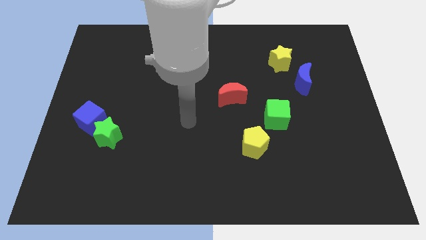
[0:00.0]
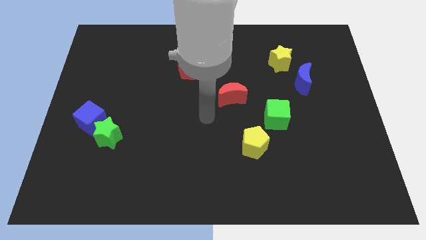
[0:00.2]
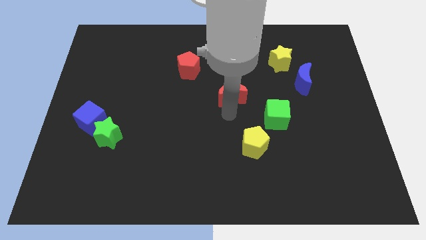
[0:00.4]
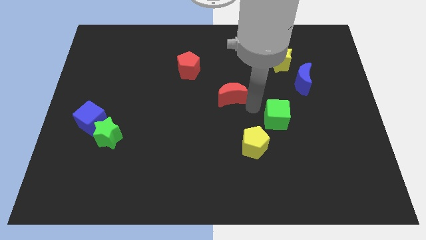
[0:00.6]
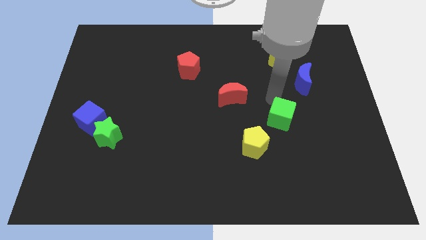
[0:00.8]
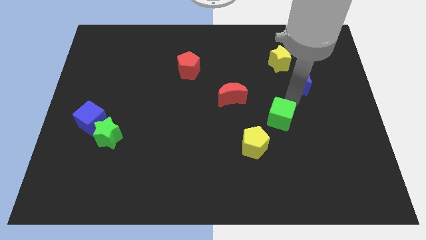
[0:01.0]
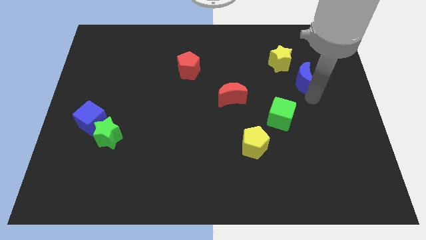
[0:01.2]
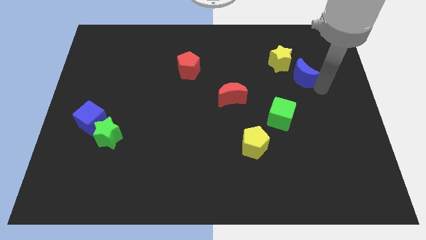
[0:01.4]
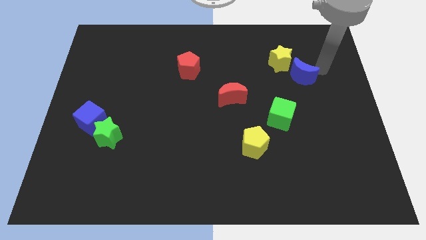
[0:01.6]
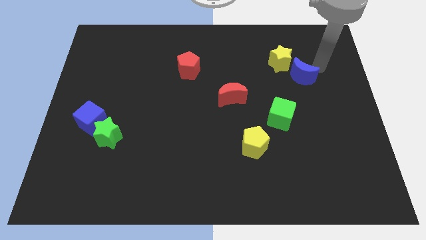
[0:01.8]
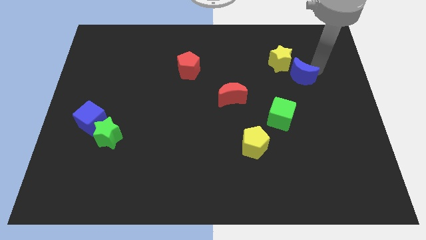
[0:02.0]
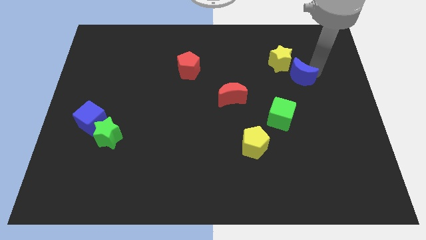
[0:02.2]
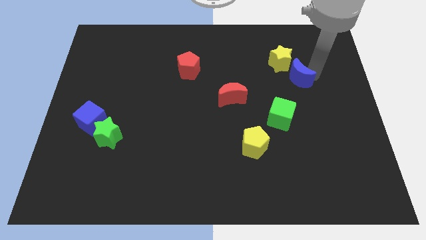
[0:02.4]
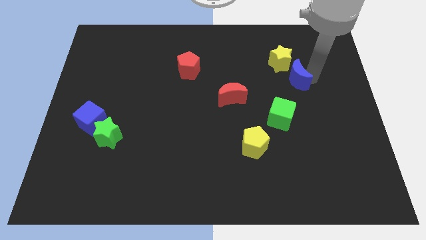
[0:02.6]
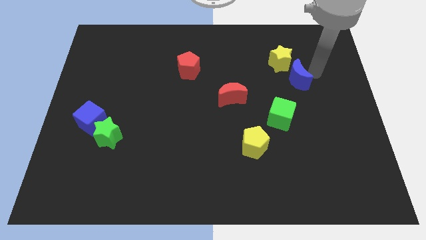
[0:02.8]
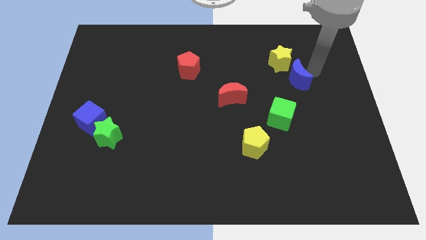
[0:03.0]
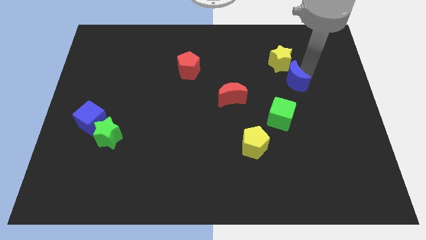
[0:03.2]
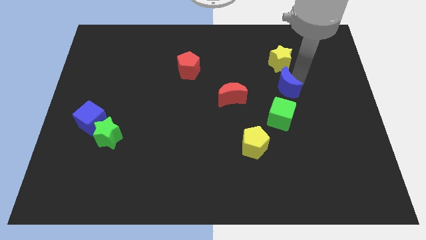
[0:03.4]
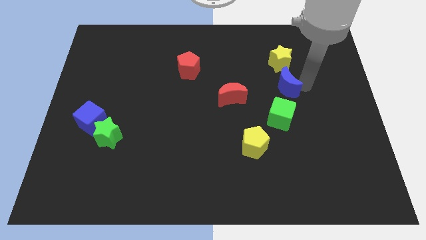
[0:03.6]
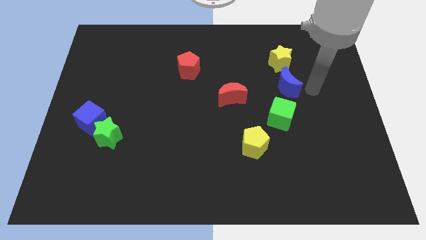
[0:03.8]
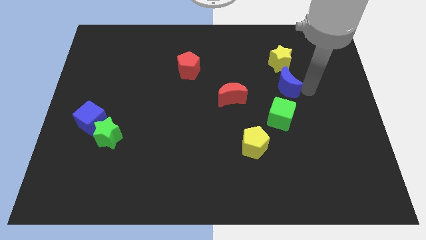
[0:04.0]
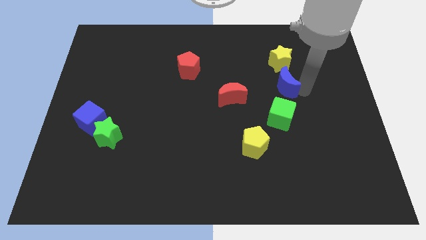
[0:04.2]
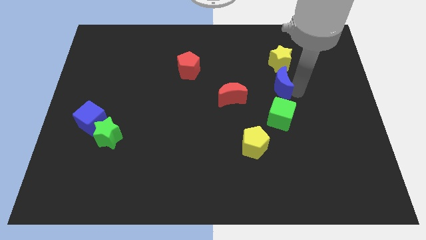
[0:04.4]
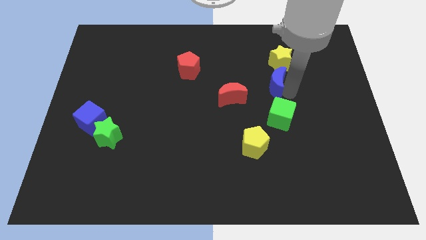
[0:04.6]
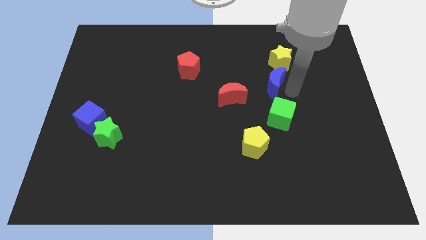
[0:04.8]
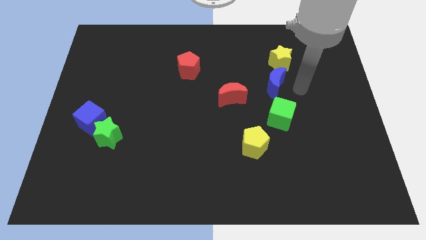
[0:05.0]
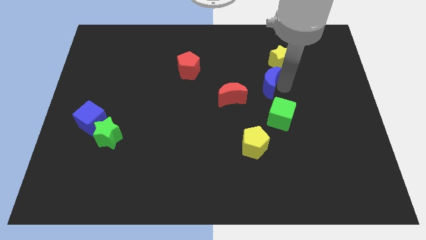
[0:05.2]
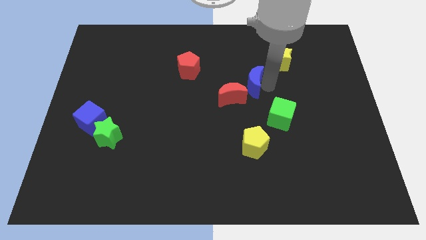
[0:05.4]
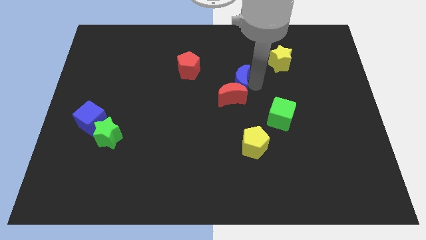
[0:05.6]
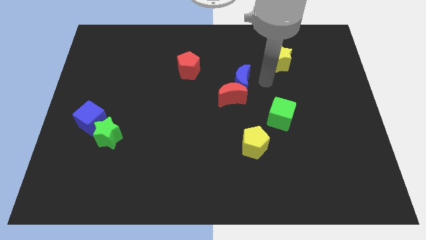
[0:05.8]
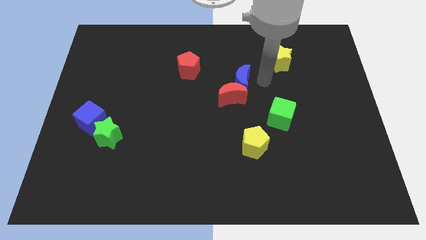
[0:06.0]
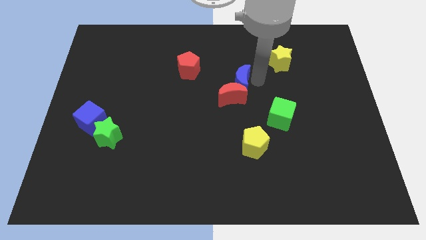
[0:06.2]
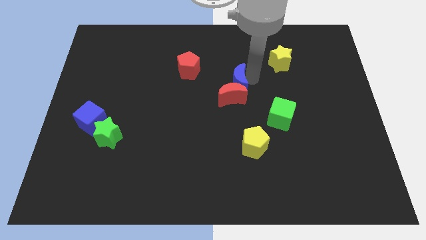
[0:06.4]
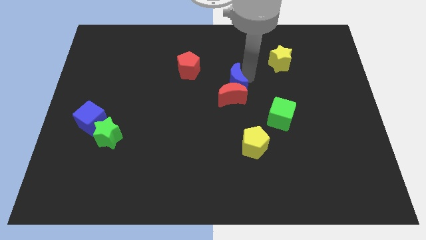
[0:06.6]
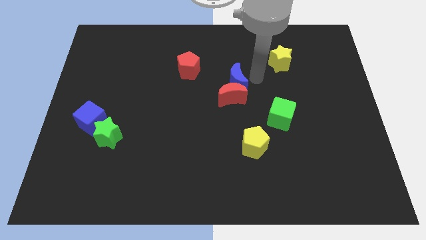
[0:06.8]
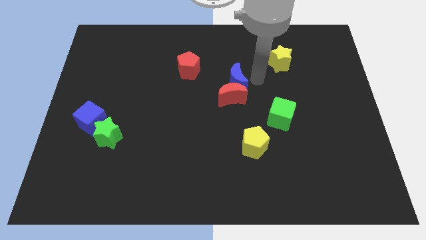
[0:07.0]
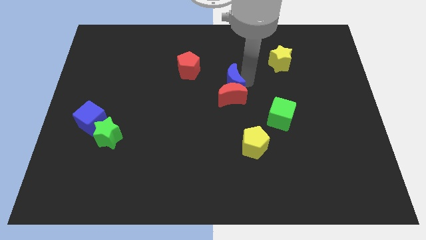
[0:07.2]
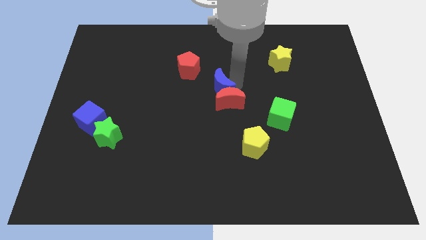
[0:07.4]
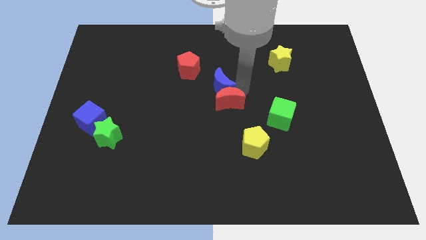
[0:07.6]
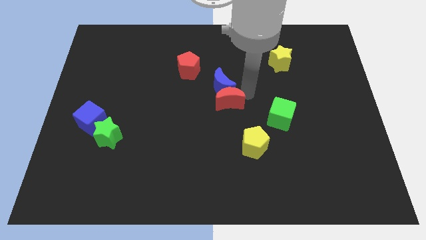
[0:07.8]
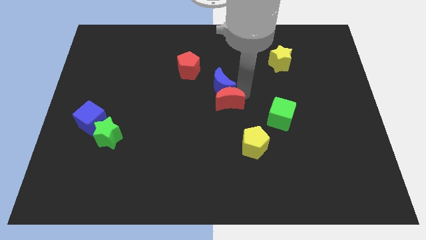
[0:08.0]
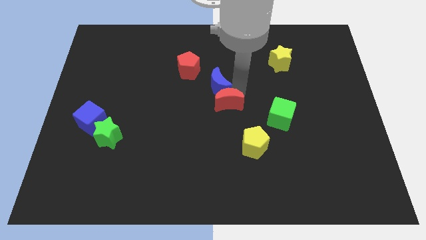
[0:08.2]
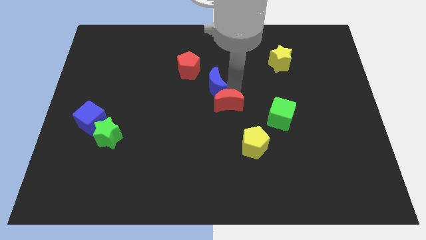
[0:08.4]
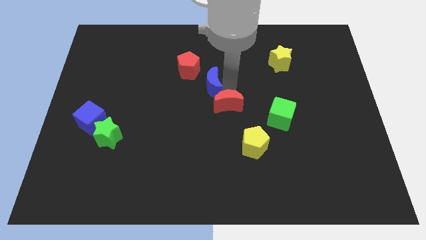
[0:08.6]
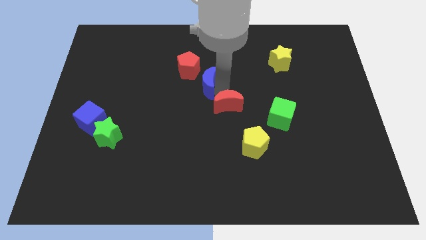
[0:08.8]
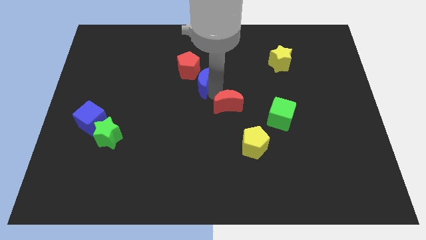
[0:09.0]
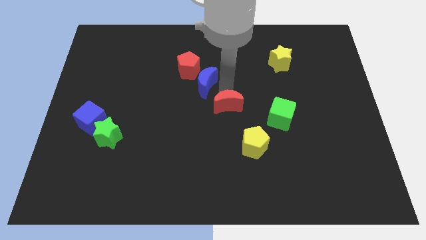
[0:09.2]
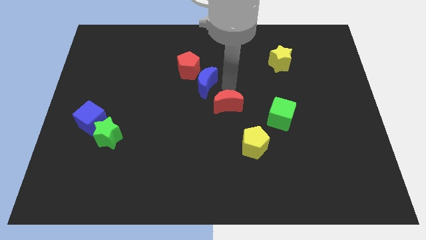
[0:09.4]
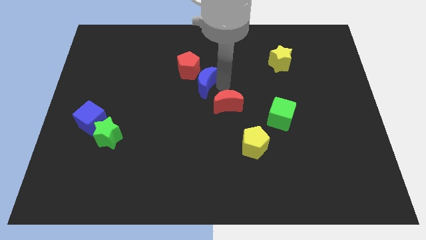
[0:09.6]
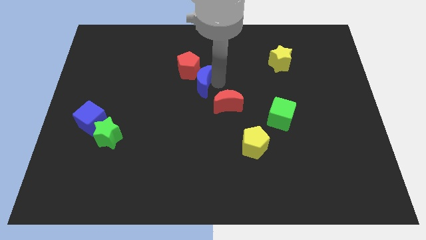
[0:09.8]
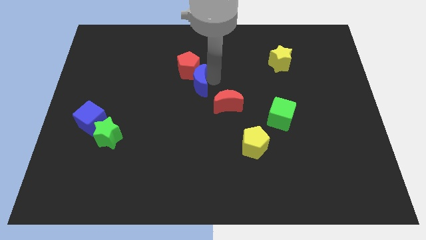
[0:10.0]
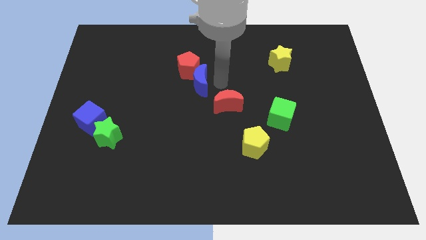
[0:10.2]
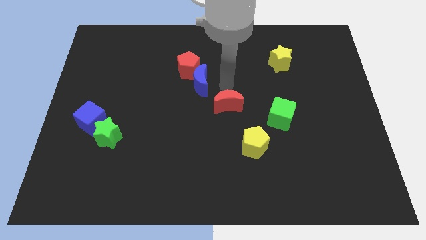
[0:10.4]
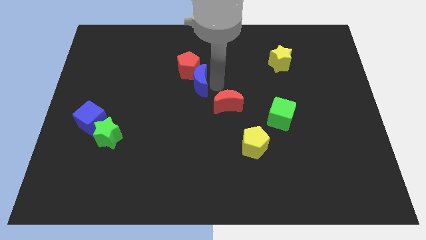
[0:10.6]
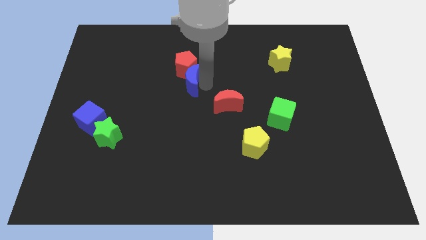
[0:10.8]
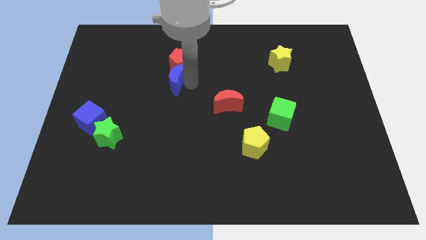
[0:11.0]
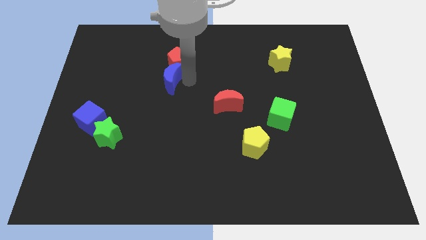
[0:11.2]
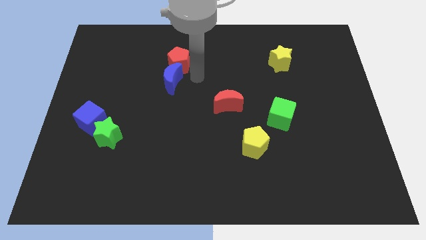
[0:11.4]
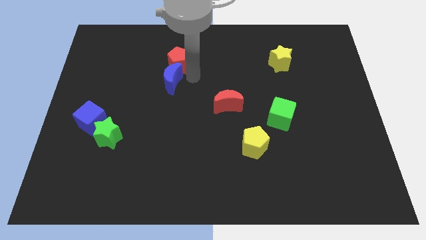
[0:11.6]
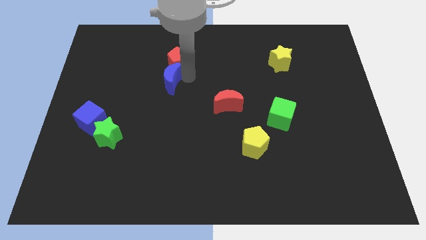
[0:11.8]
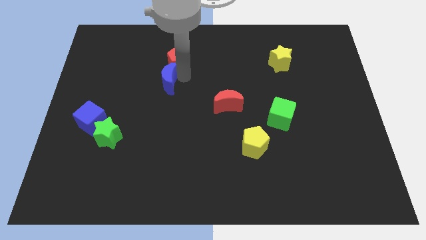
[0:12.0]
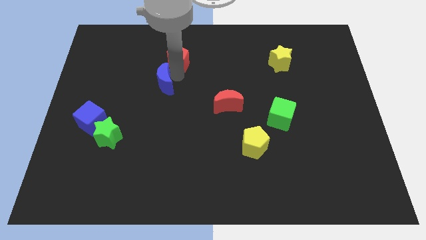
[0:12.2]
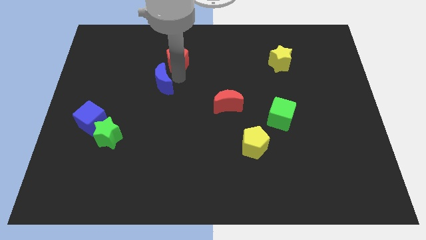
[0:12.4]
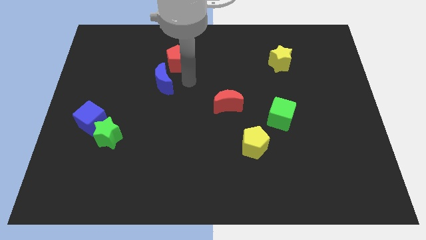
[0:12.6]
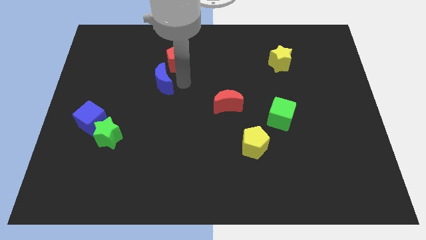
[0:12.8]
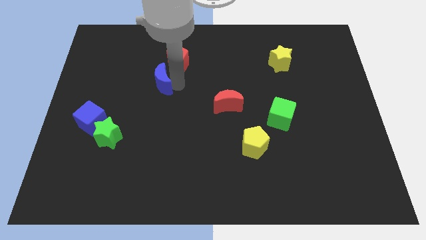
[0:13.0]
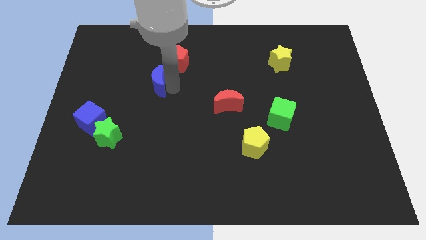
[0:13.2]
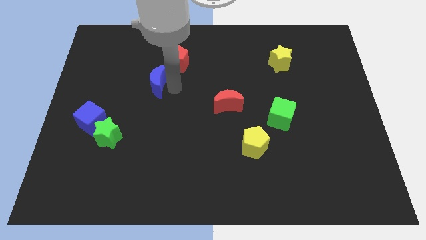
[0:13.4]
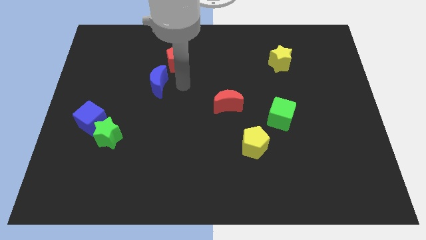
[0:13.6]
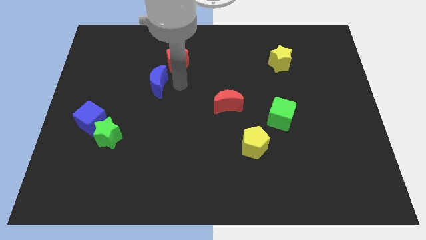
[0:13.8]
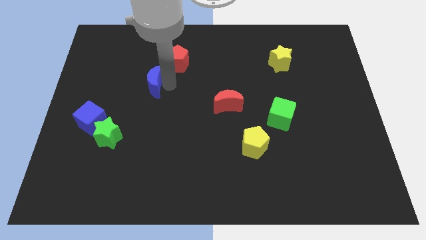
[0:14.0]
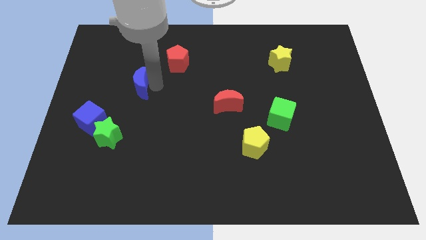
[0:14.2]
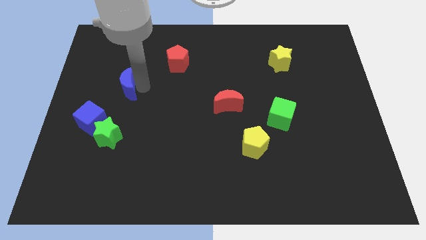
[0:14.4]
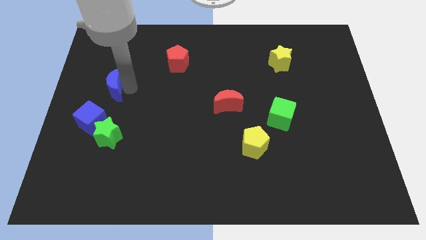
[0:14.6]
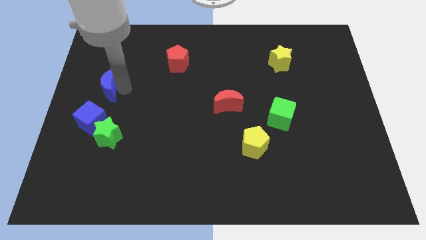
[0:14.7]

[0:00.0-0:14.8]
push the blue moon to the left side of the board
